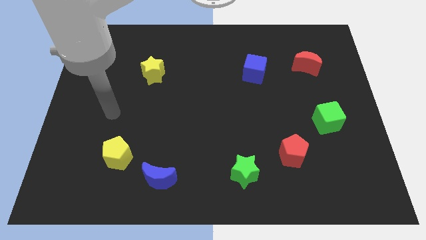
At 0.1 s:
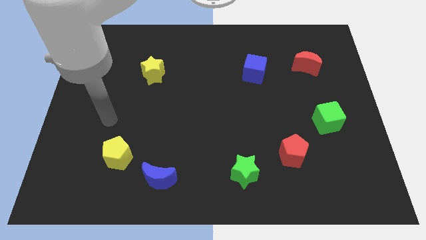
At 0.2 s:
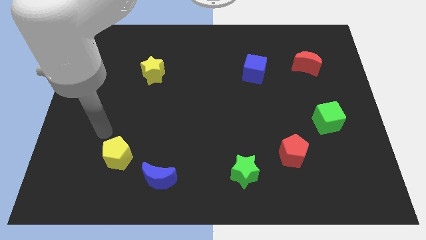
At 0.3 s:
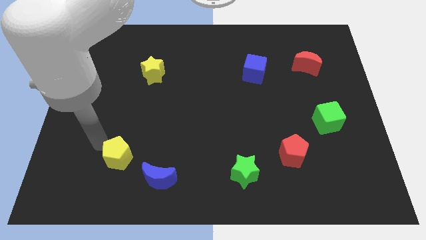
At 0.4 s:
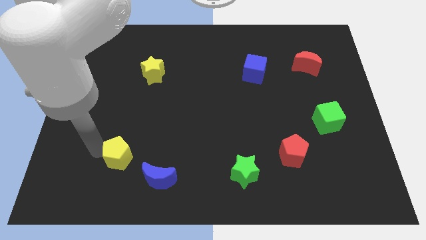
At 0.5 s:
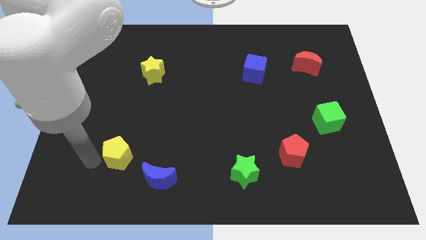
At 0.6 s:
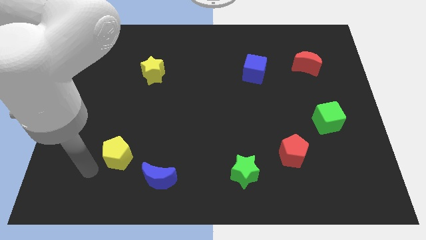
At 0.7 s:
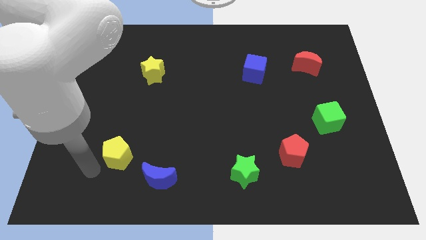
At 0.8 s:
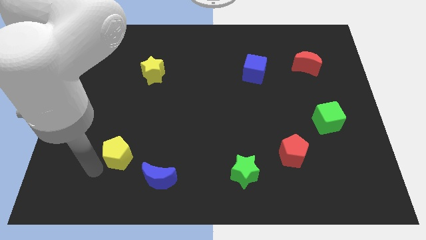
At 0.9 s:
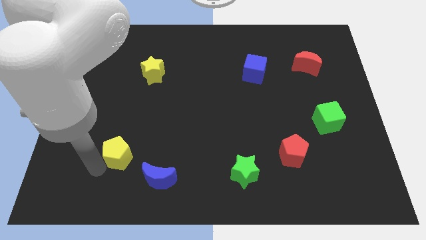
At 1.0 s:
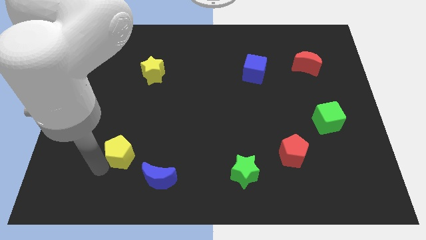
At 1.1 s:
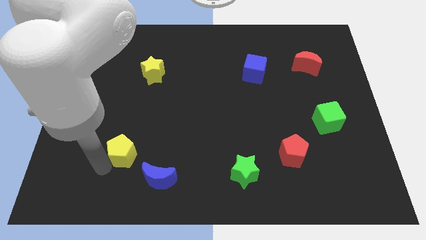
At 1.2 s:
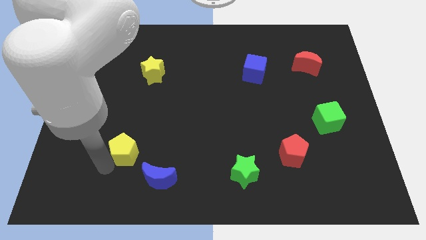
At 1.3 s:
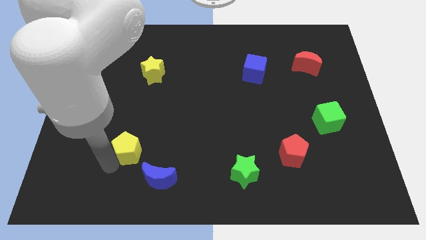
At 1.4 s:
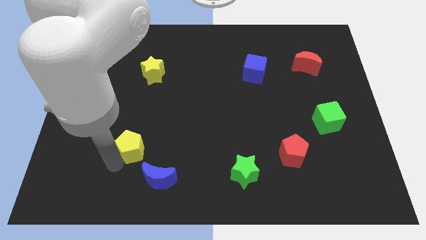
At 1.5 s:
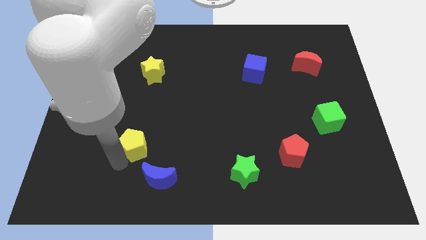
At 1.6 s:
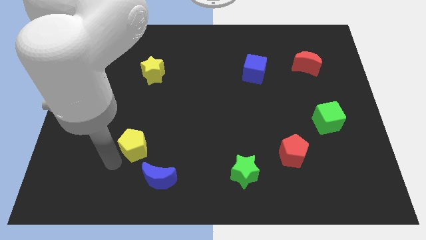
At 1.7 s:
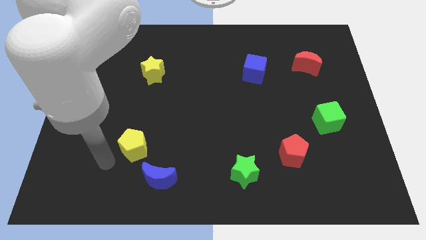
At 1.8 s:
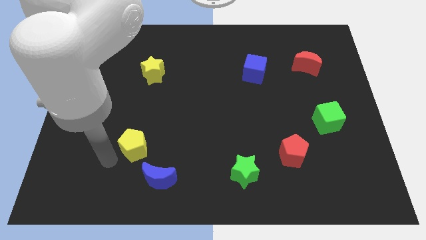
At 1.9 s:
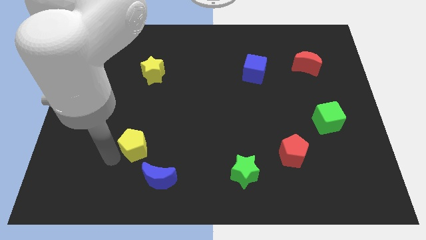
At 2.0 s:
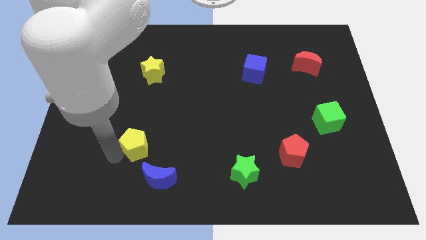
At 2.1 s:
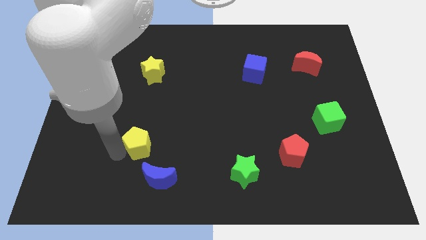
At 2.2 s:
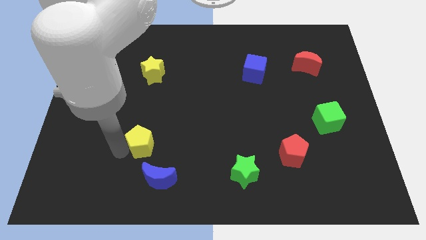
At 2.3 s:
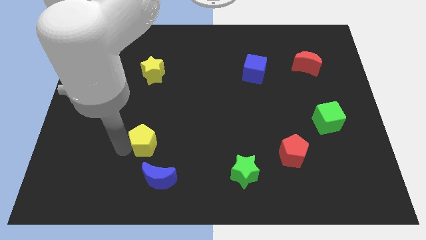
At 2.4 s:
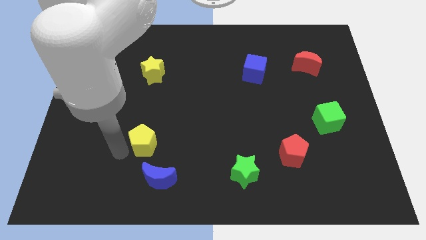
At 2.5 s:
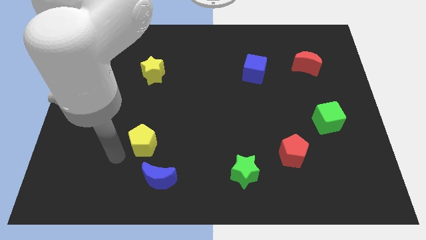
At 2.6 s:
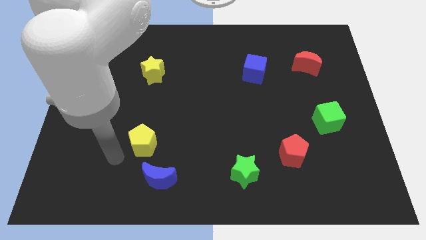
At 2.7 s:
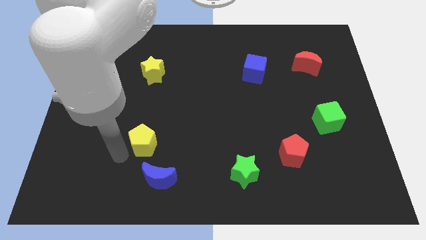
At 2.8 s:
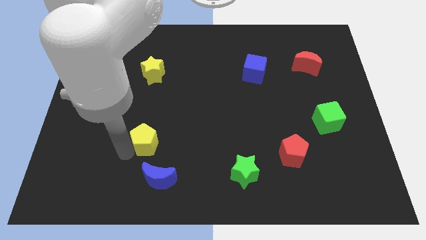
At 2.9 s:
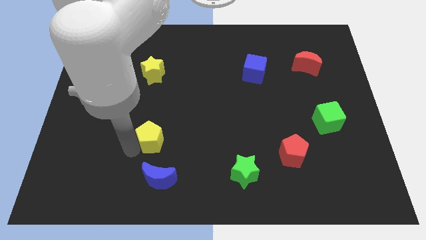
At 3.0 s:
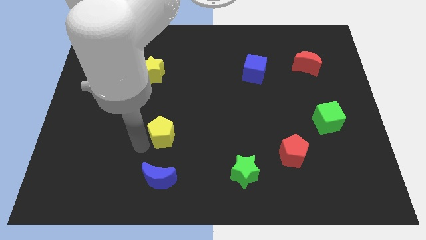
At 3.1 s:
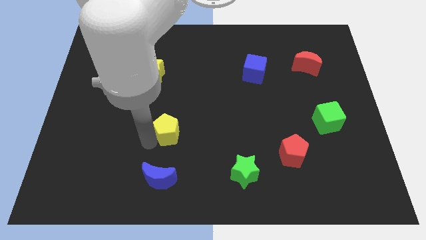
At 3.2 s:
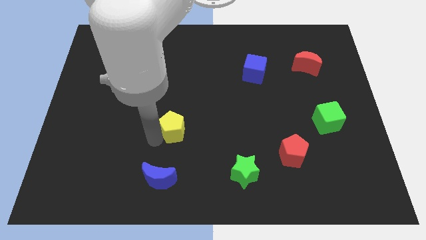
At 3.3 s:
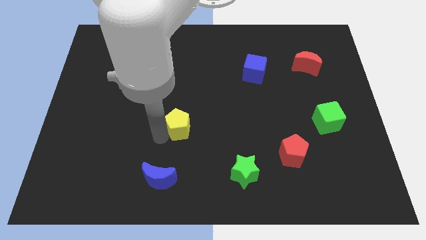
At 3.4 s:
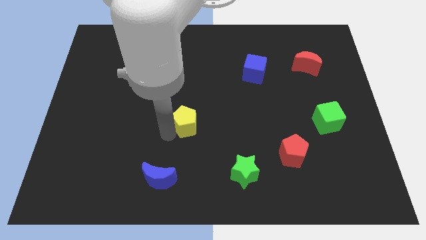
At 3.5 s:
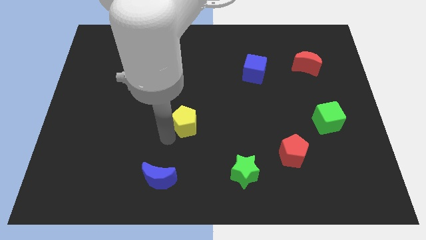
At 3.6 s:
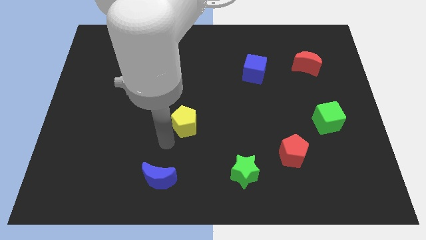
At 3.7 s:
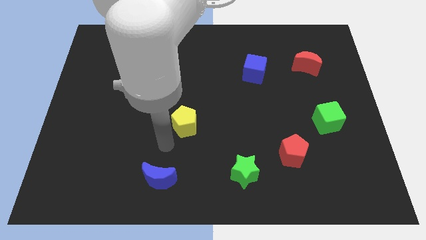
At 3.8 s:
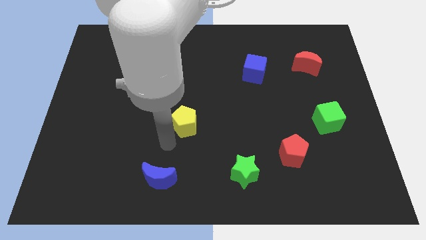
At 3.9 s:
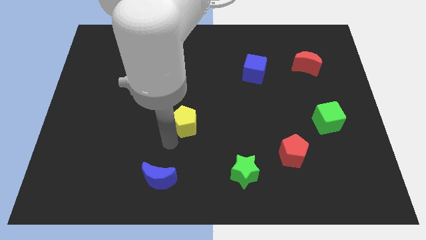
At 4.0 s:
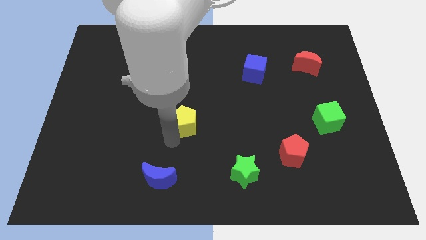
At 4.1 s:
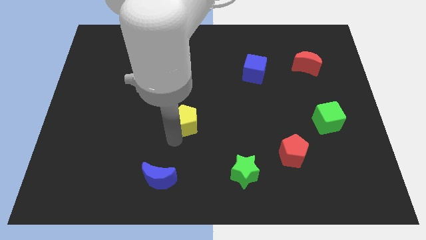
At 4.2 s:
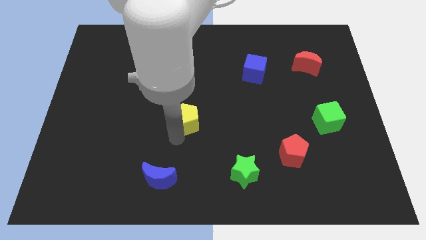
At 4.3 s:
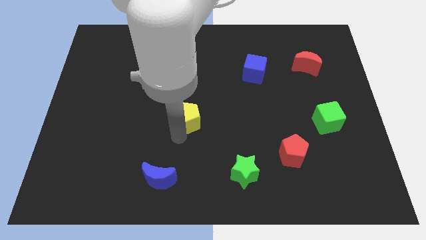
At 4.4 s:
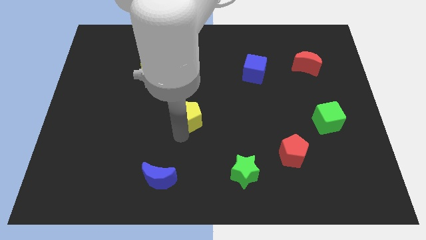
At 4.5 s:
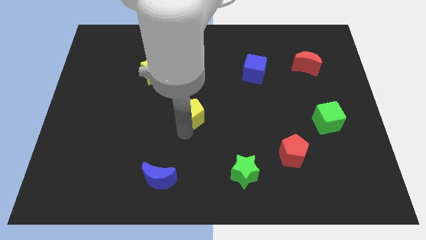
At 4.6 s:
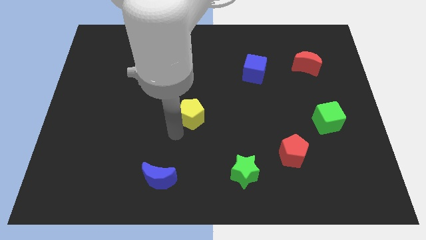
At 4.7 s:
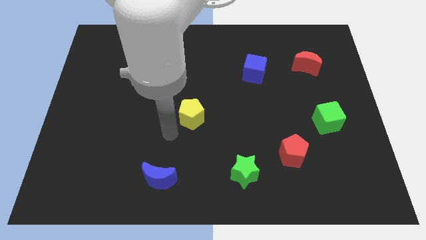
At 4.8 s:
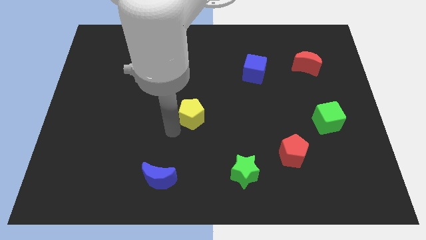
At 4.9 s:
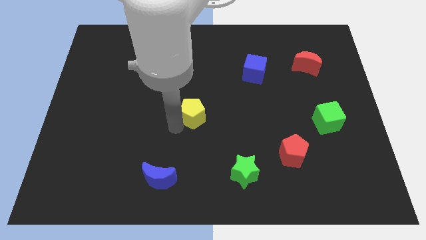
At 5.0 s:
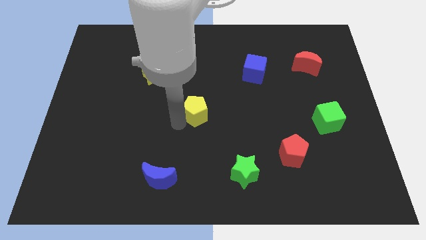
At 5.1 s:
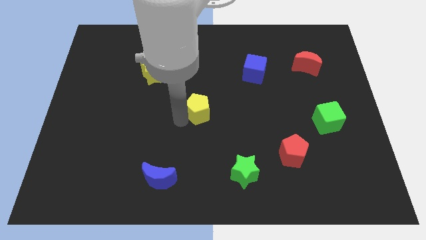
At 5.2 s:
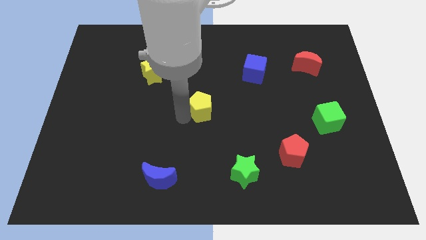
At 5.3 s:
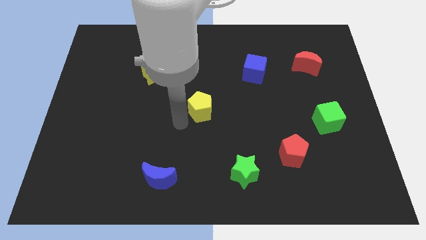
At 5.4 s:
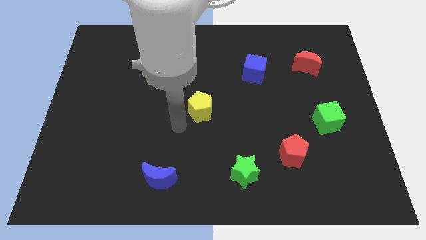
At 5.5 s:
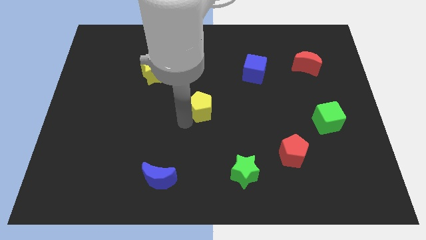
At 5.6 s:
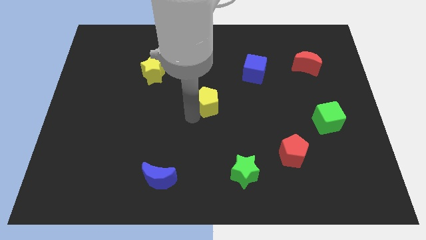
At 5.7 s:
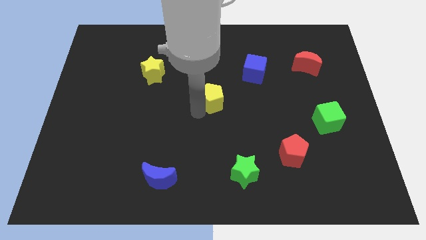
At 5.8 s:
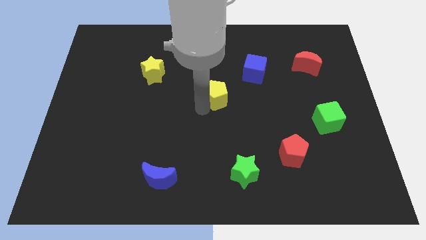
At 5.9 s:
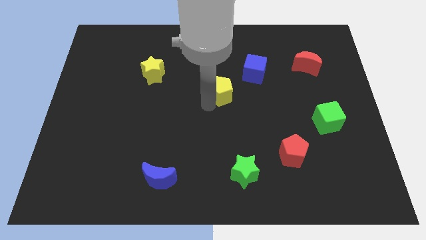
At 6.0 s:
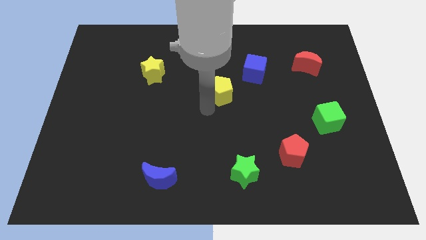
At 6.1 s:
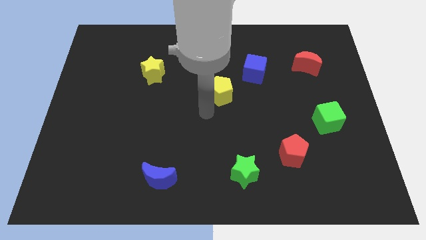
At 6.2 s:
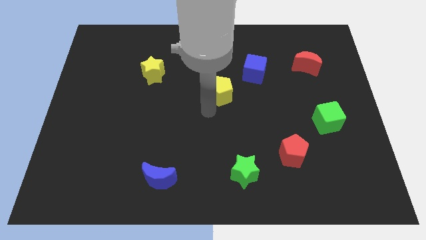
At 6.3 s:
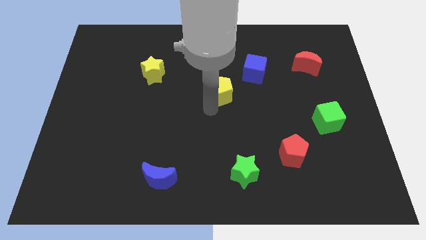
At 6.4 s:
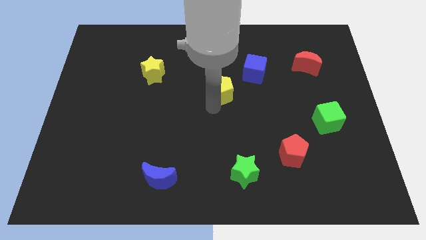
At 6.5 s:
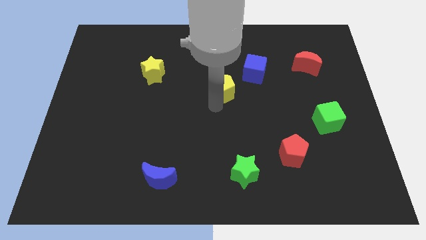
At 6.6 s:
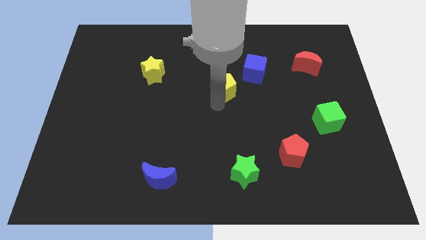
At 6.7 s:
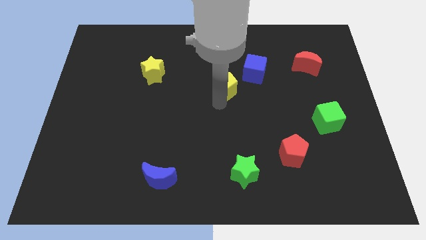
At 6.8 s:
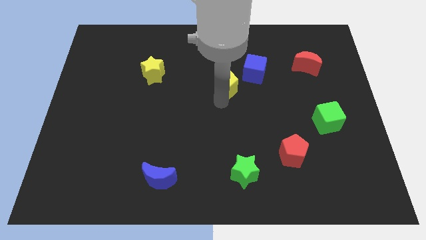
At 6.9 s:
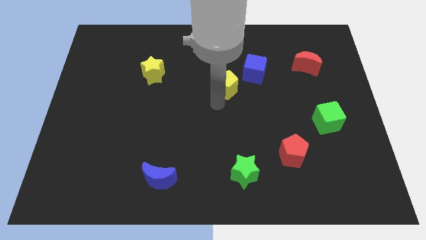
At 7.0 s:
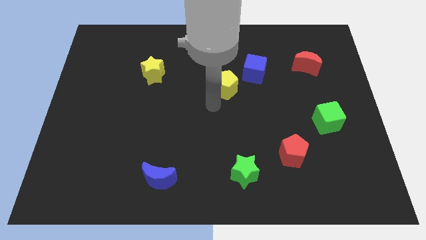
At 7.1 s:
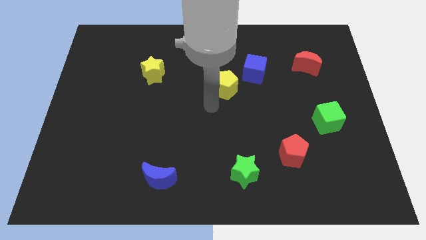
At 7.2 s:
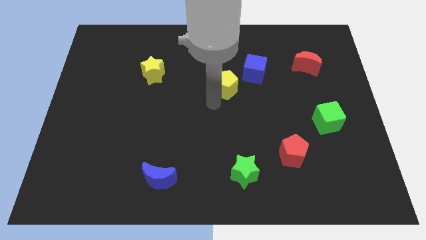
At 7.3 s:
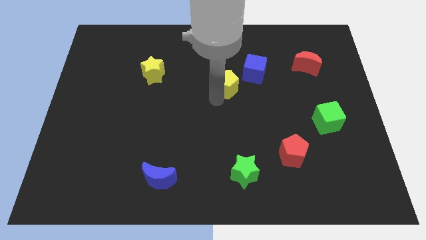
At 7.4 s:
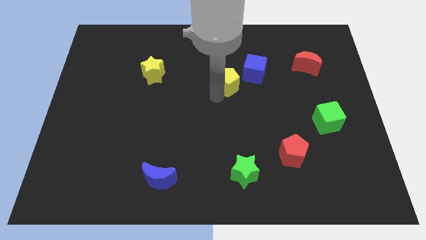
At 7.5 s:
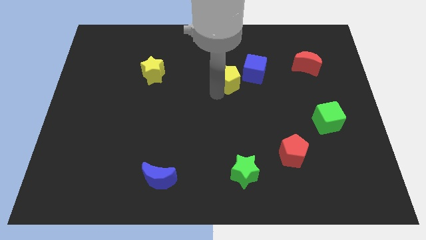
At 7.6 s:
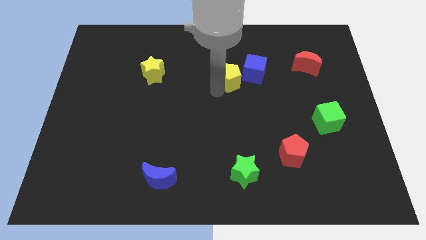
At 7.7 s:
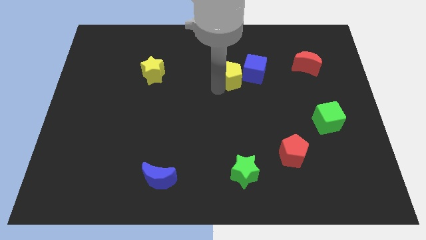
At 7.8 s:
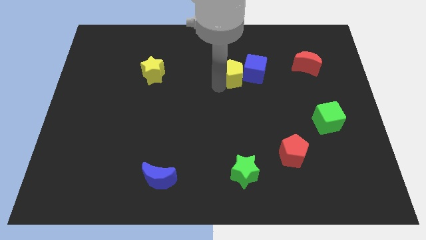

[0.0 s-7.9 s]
move the yellow pentagon next to the blue cube
